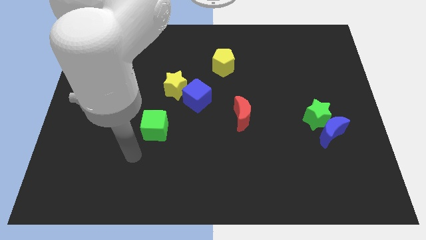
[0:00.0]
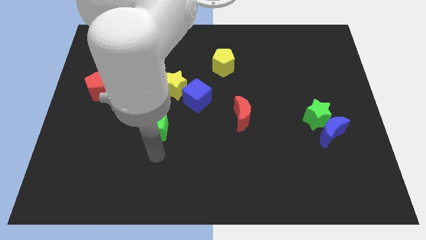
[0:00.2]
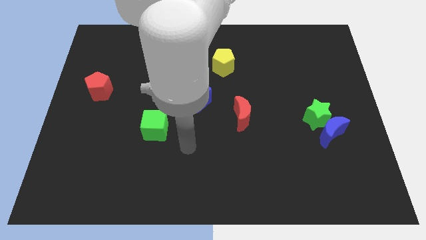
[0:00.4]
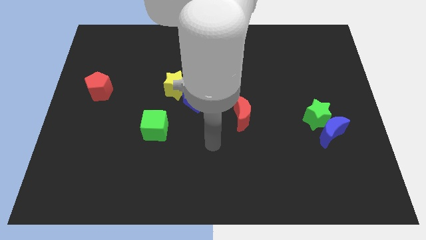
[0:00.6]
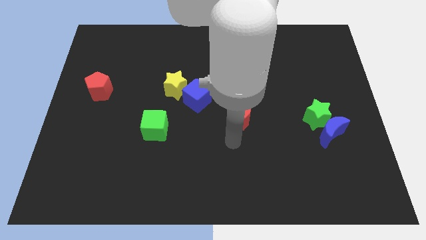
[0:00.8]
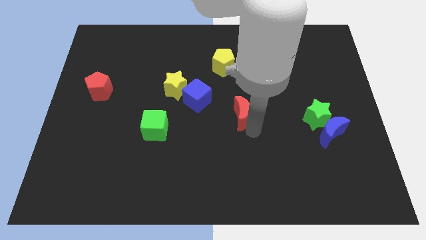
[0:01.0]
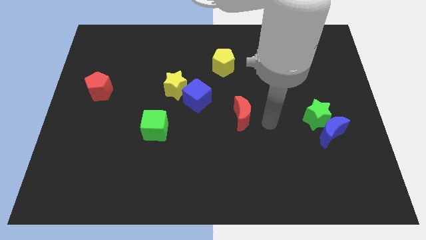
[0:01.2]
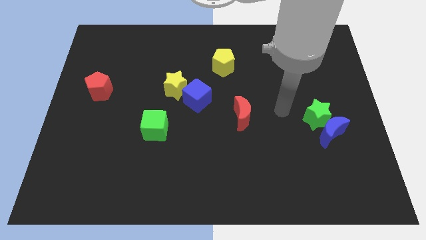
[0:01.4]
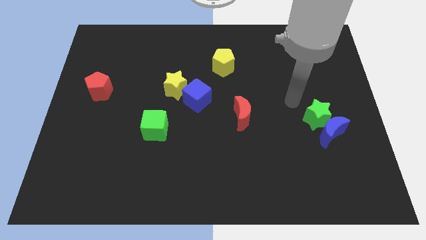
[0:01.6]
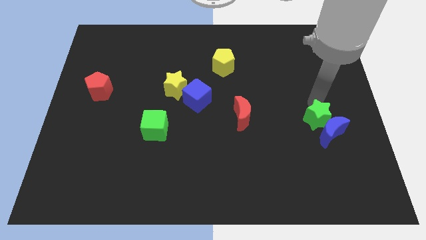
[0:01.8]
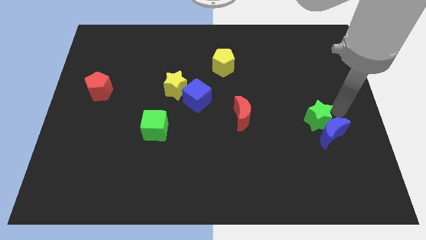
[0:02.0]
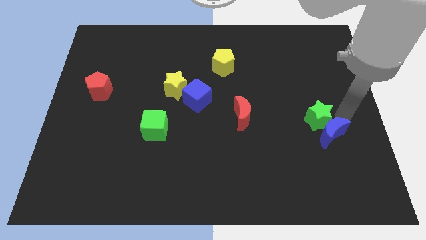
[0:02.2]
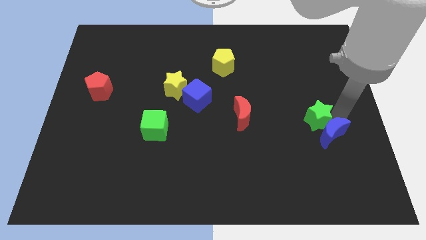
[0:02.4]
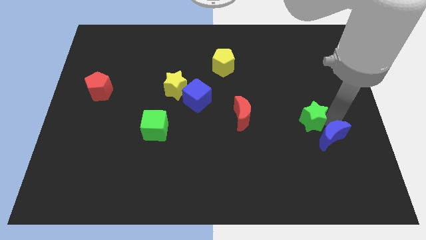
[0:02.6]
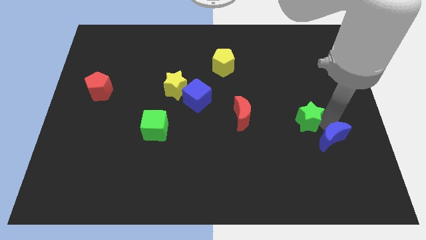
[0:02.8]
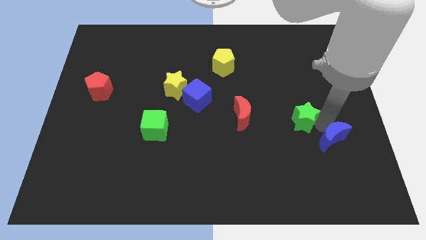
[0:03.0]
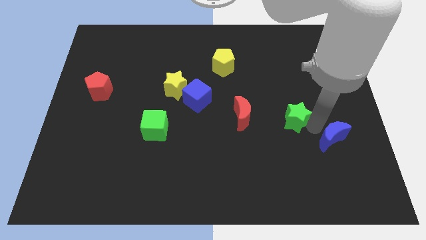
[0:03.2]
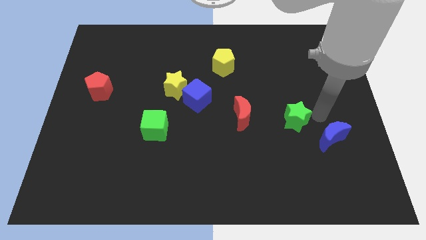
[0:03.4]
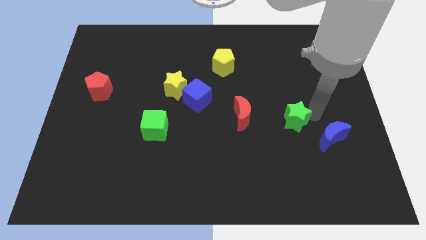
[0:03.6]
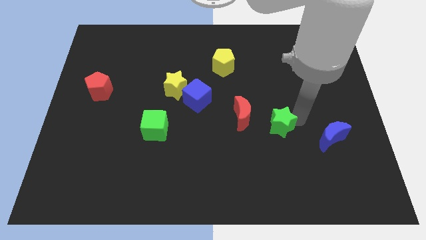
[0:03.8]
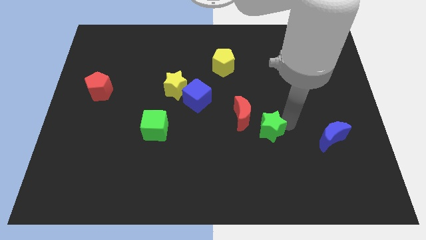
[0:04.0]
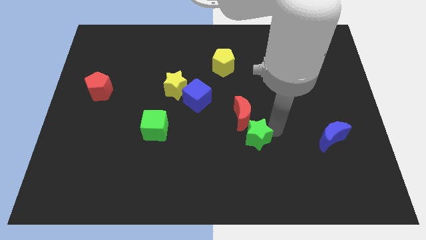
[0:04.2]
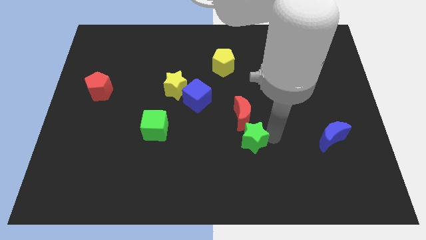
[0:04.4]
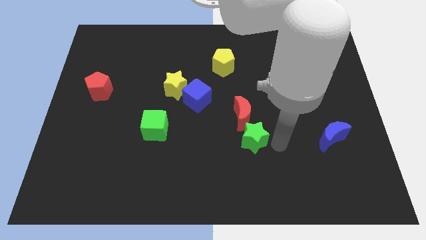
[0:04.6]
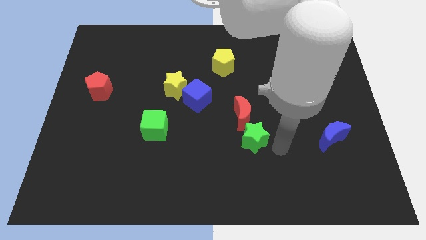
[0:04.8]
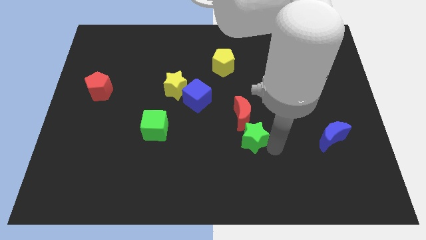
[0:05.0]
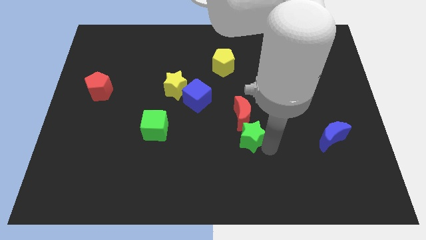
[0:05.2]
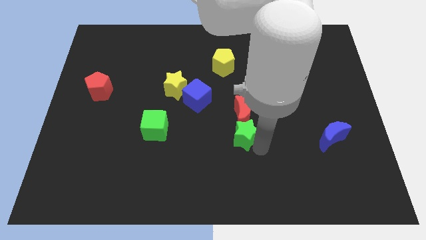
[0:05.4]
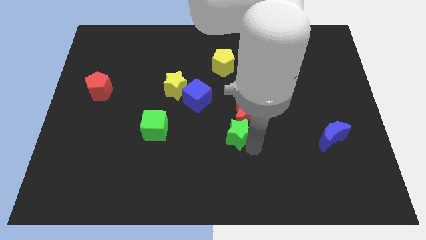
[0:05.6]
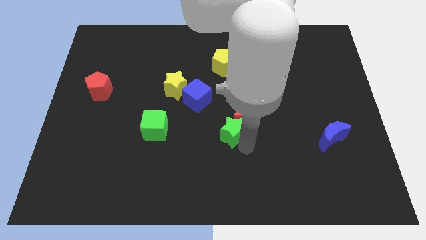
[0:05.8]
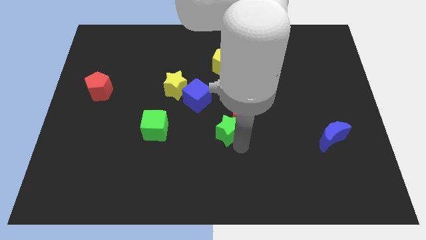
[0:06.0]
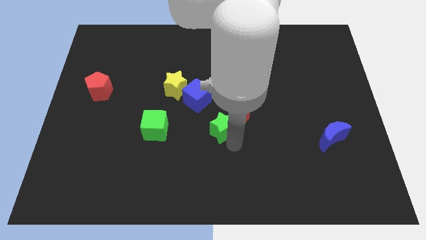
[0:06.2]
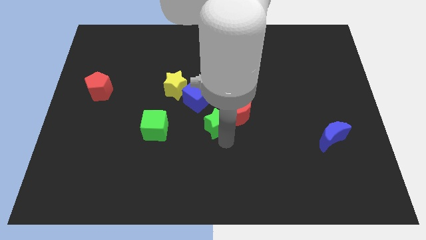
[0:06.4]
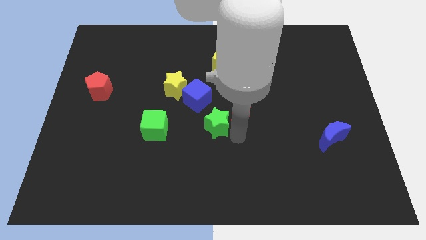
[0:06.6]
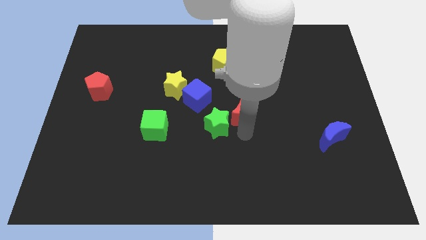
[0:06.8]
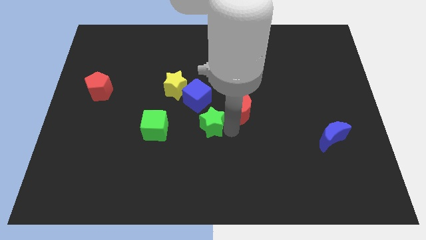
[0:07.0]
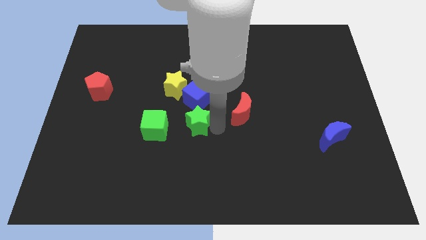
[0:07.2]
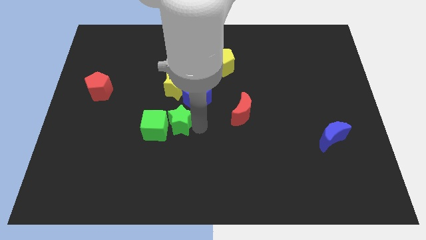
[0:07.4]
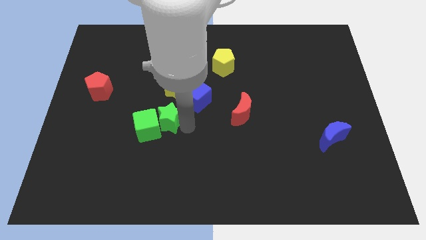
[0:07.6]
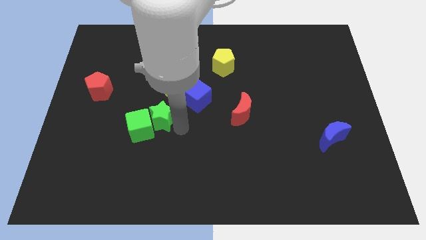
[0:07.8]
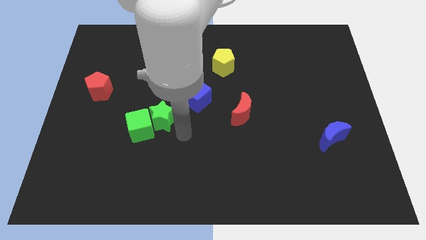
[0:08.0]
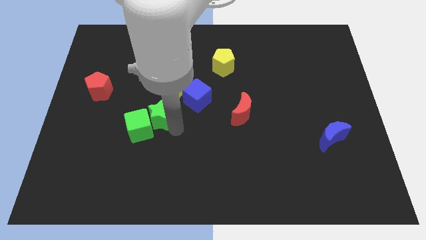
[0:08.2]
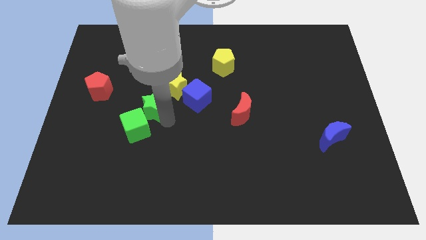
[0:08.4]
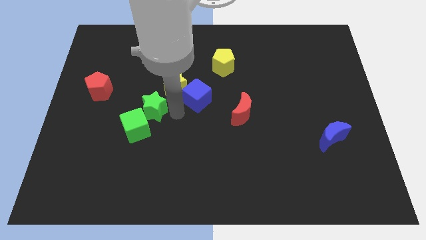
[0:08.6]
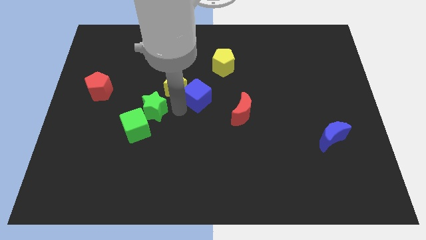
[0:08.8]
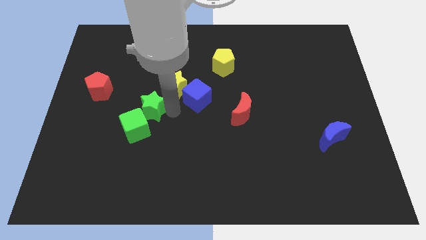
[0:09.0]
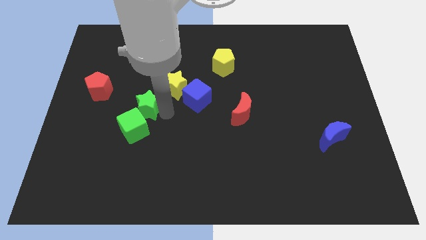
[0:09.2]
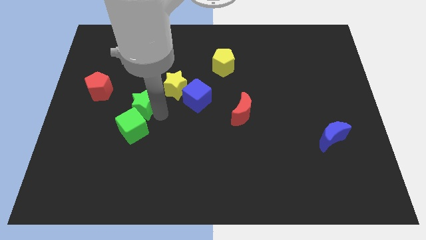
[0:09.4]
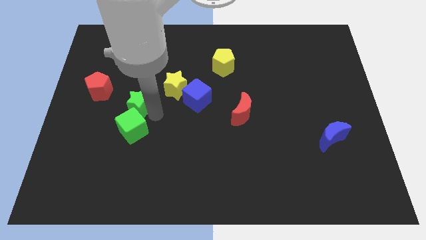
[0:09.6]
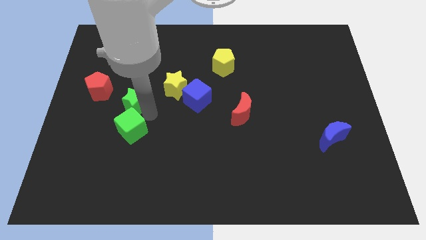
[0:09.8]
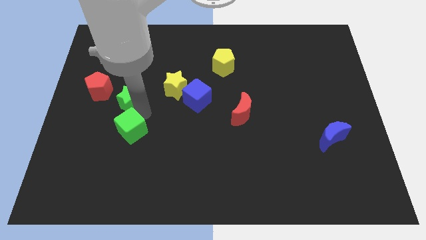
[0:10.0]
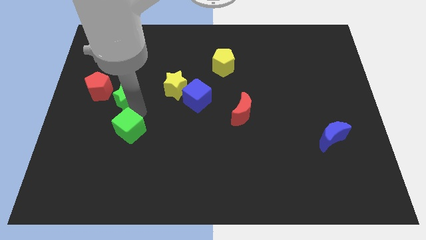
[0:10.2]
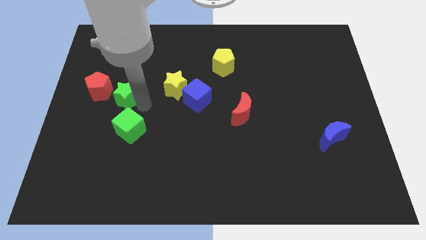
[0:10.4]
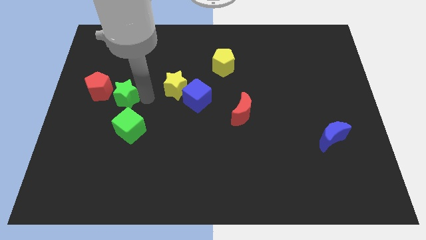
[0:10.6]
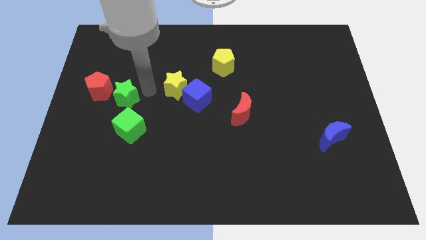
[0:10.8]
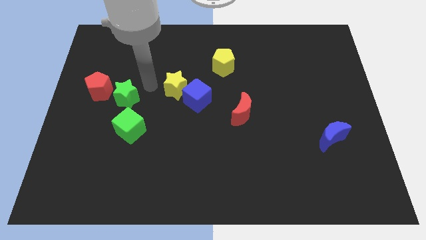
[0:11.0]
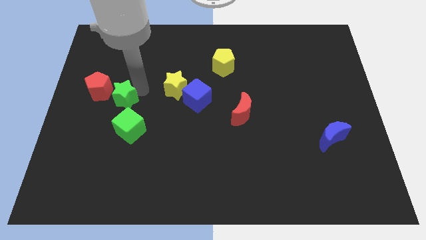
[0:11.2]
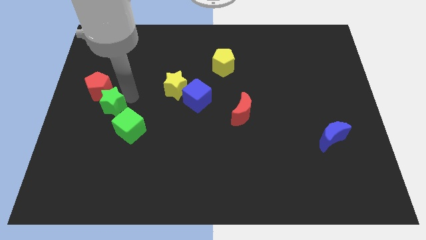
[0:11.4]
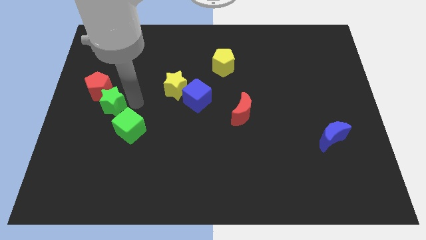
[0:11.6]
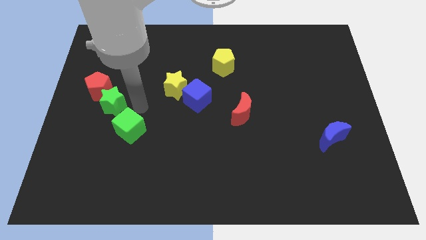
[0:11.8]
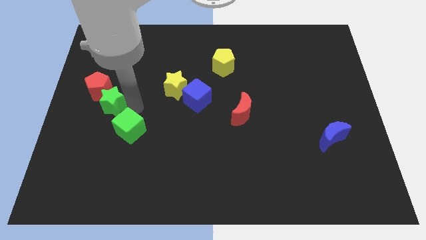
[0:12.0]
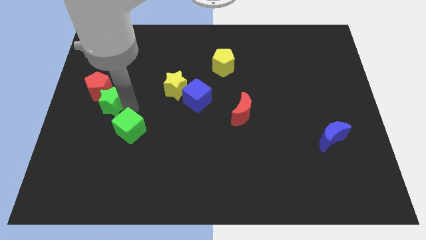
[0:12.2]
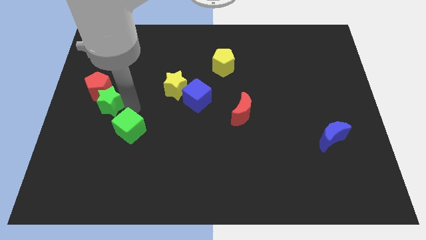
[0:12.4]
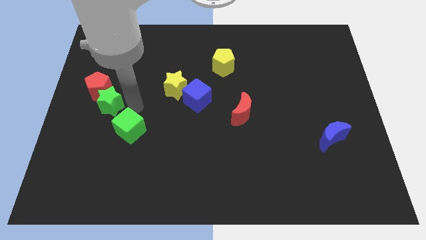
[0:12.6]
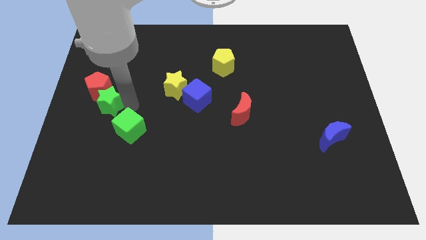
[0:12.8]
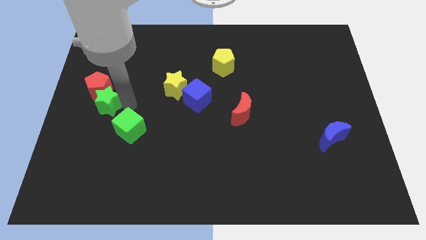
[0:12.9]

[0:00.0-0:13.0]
move the green star to the center left

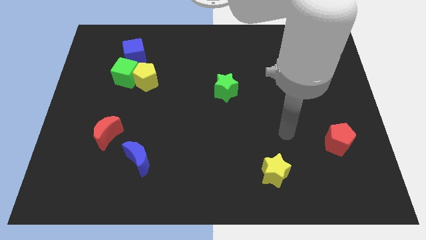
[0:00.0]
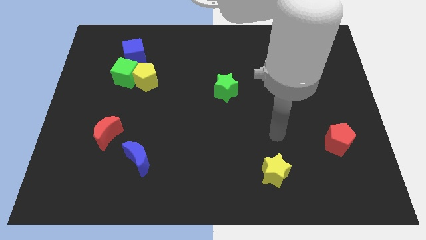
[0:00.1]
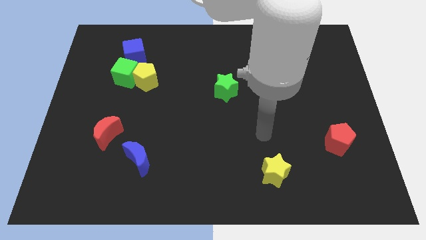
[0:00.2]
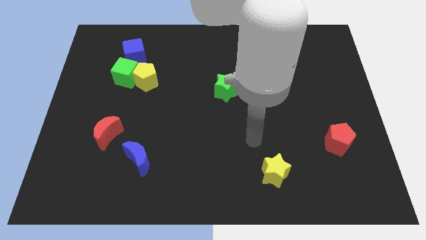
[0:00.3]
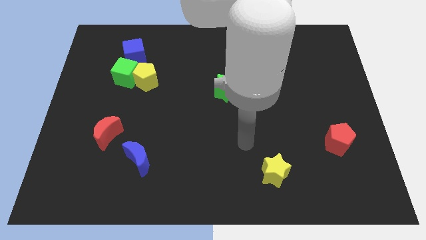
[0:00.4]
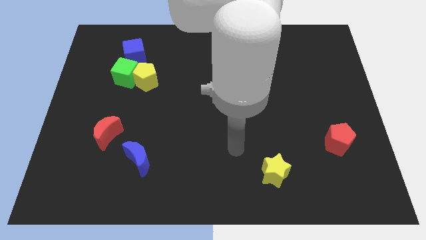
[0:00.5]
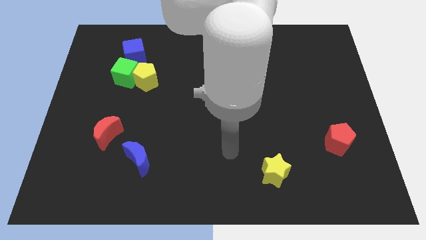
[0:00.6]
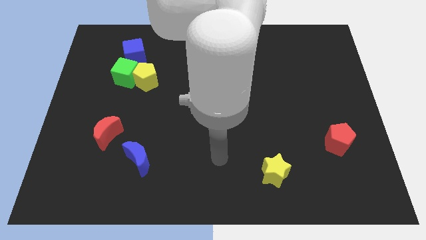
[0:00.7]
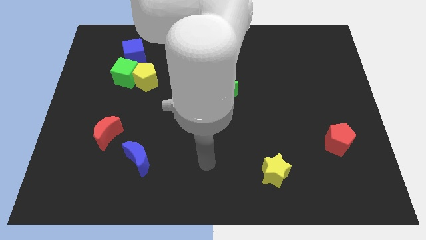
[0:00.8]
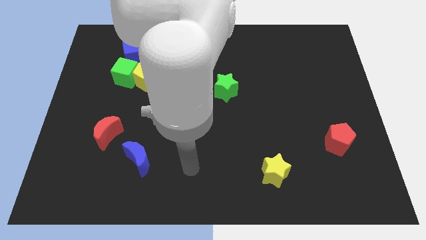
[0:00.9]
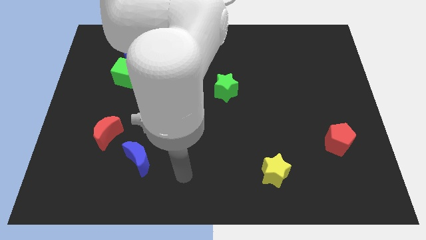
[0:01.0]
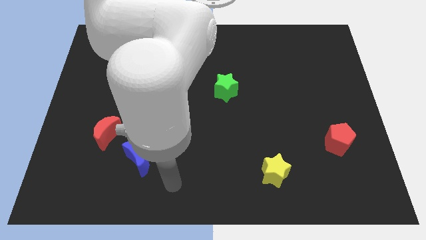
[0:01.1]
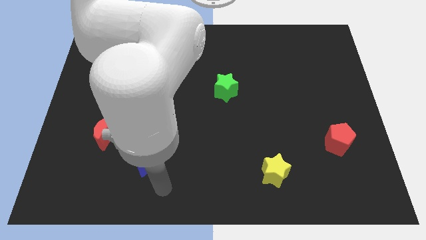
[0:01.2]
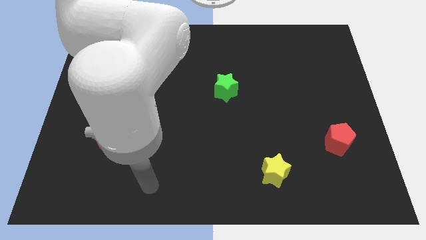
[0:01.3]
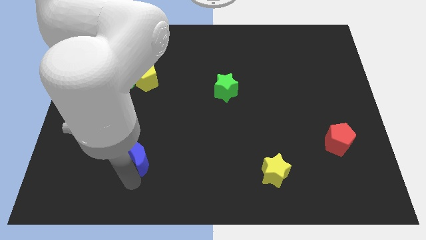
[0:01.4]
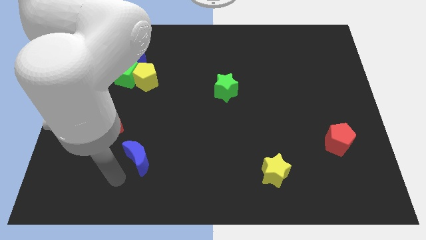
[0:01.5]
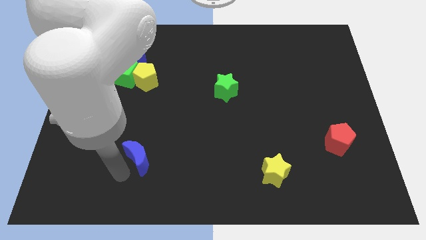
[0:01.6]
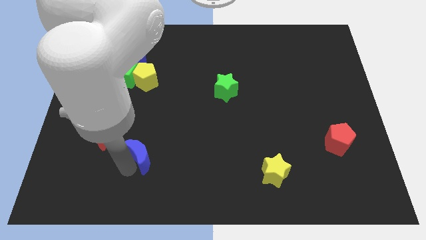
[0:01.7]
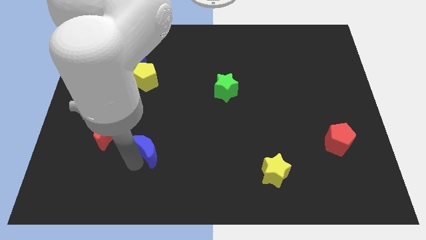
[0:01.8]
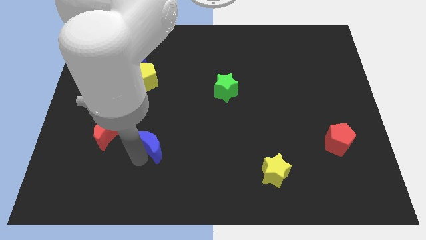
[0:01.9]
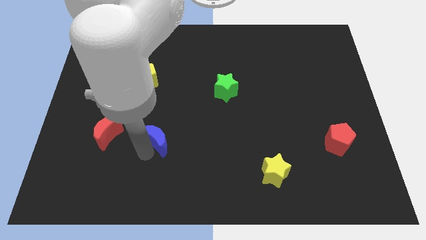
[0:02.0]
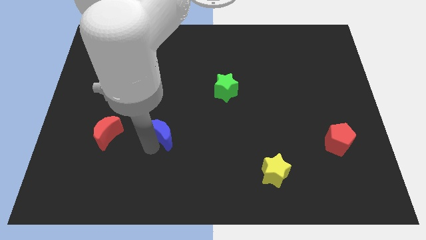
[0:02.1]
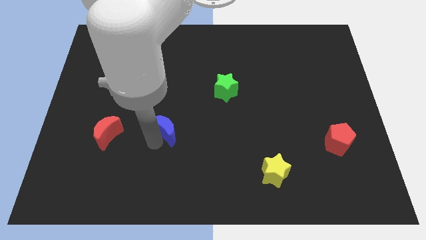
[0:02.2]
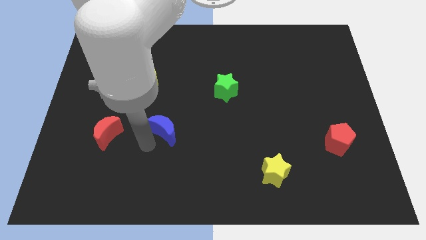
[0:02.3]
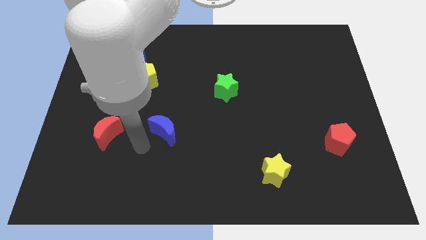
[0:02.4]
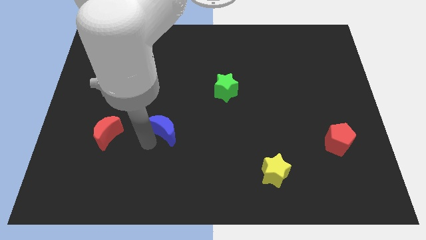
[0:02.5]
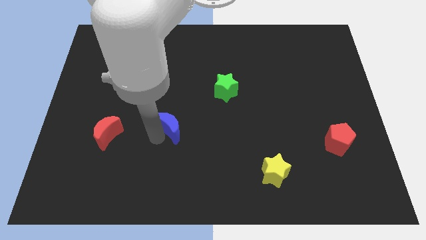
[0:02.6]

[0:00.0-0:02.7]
put the blue moon to the center of the board
